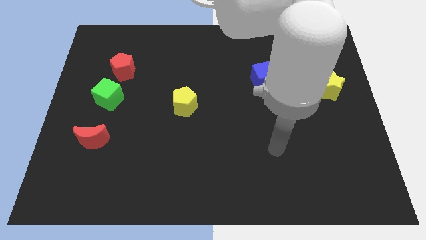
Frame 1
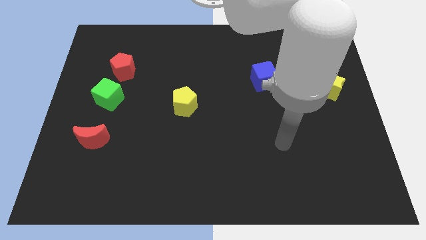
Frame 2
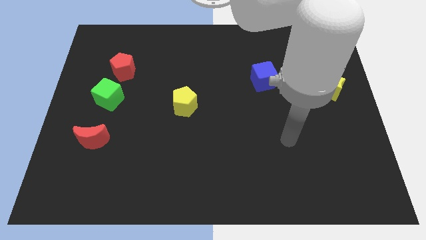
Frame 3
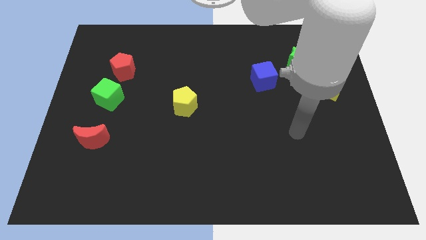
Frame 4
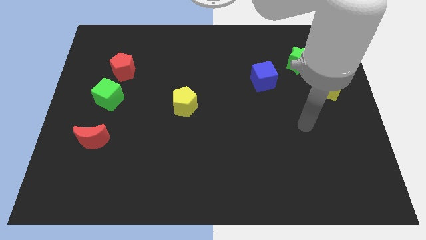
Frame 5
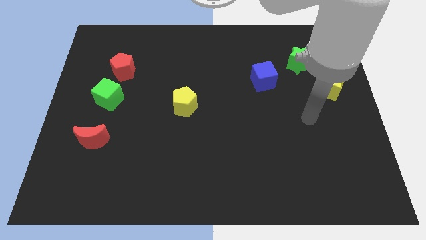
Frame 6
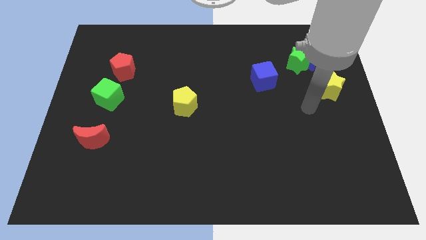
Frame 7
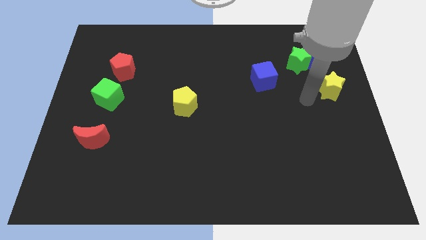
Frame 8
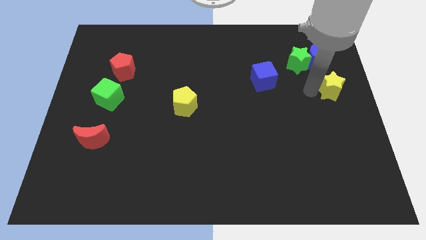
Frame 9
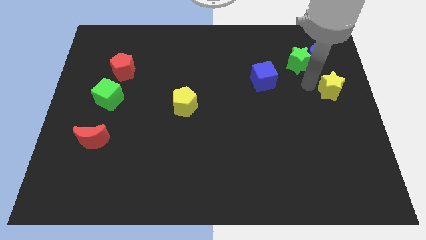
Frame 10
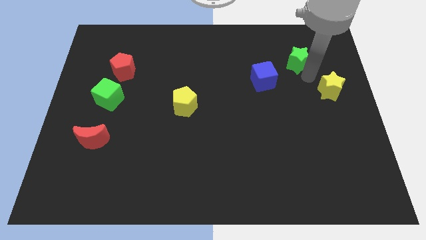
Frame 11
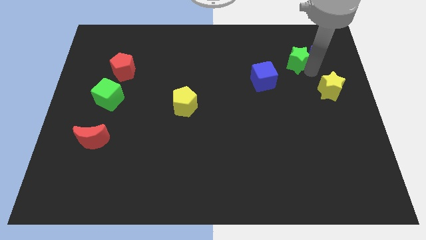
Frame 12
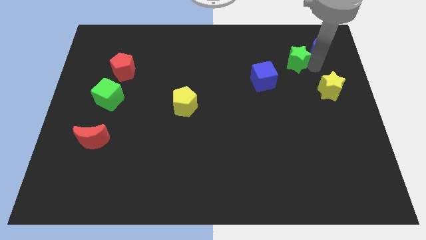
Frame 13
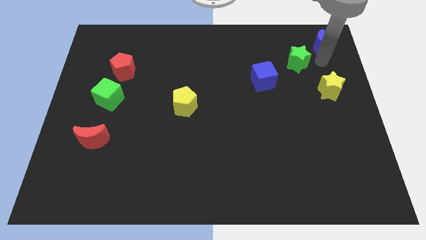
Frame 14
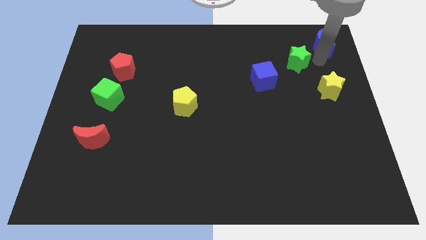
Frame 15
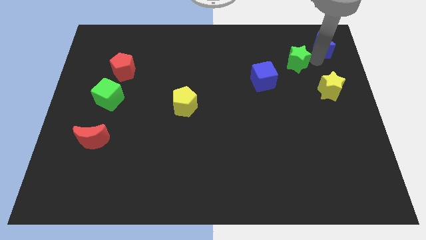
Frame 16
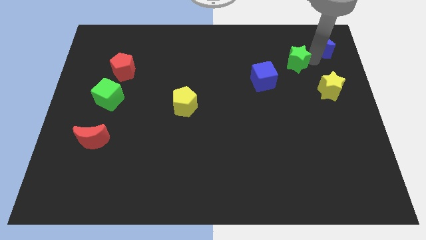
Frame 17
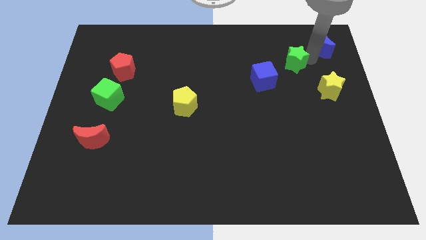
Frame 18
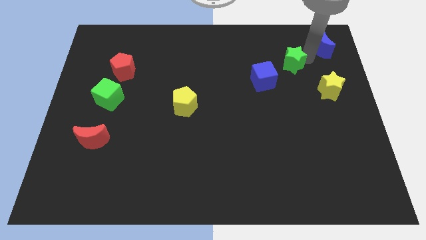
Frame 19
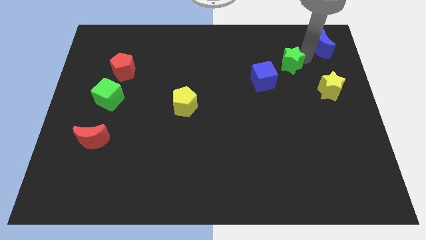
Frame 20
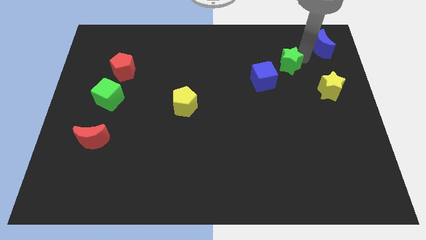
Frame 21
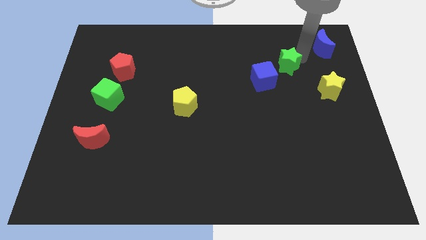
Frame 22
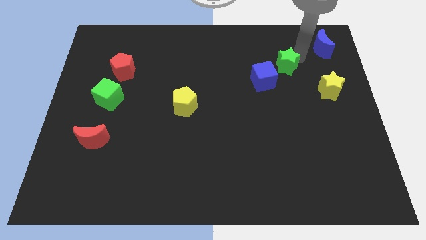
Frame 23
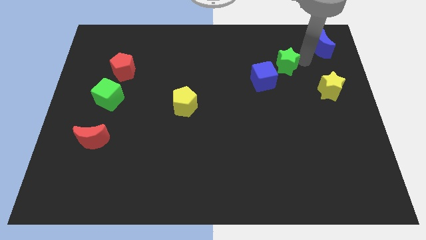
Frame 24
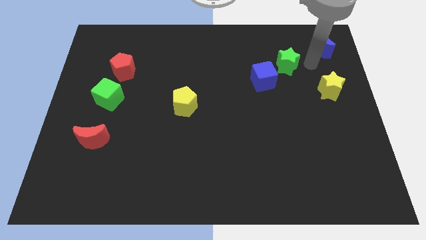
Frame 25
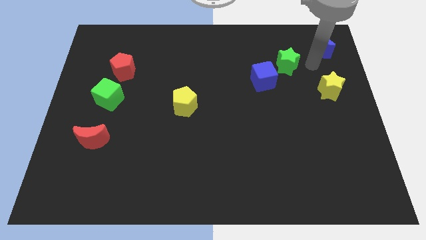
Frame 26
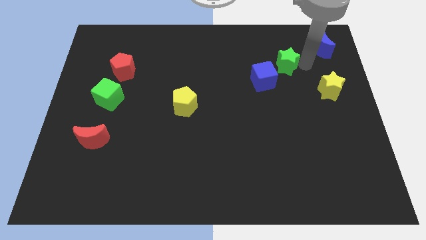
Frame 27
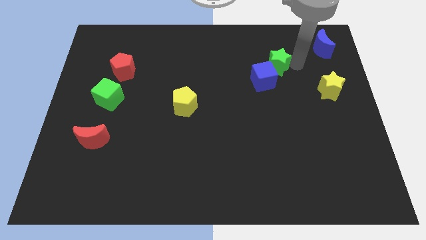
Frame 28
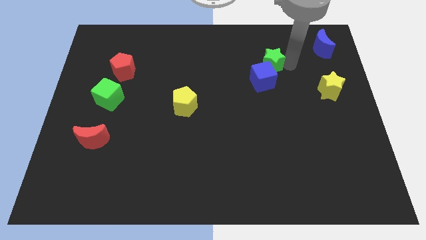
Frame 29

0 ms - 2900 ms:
move the green star a little left

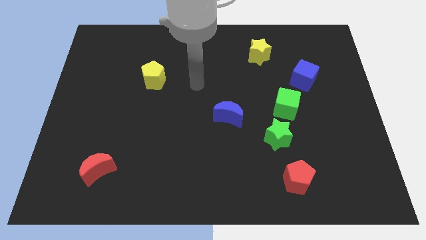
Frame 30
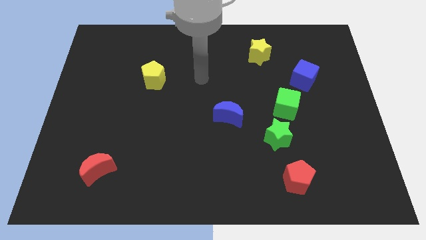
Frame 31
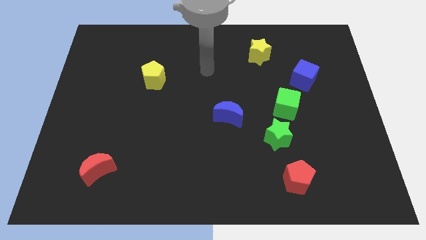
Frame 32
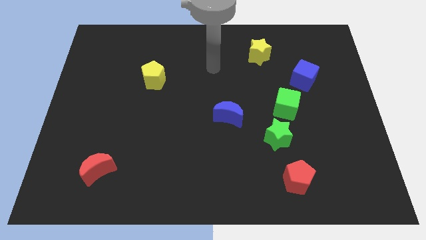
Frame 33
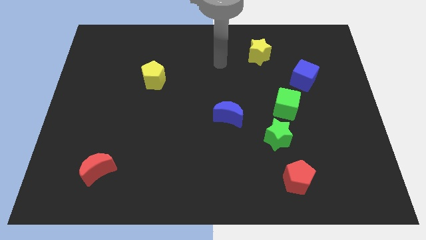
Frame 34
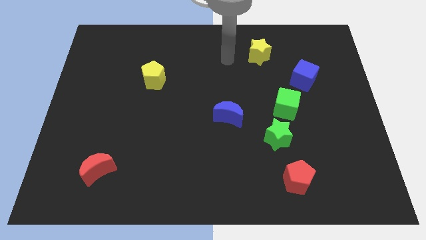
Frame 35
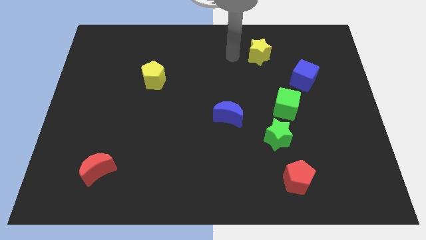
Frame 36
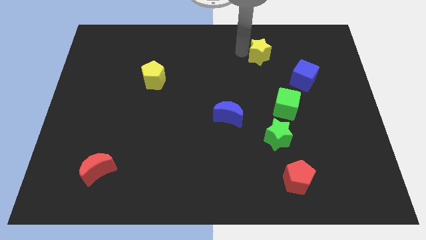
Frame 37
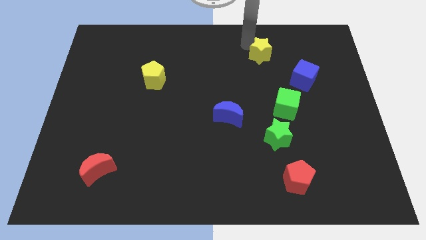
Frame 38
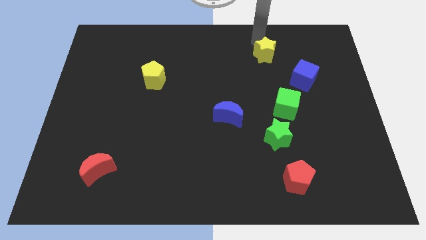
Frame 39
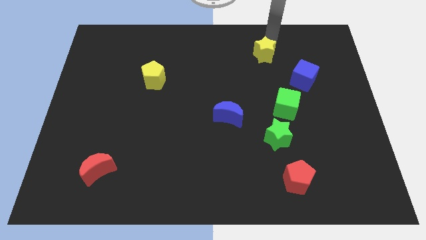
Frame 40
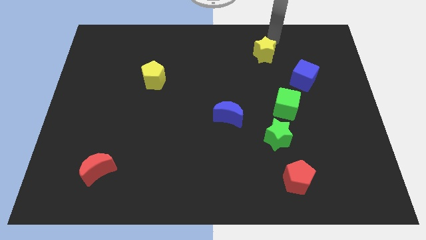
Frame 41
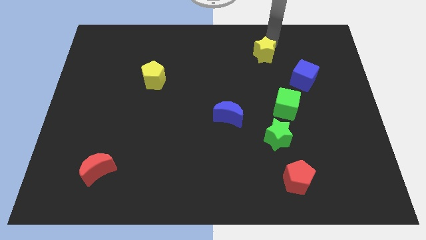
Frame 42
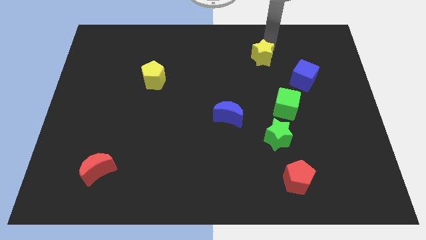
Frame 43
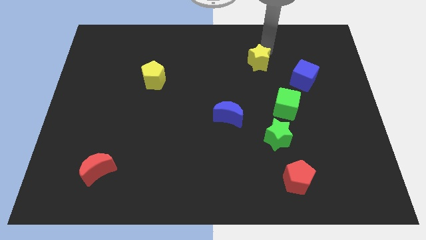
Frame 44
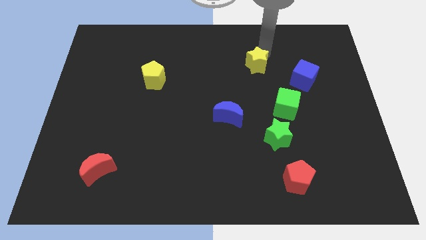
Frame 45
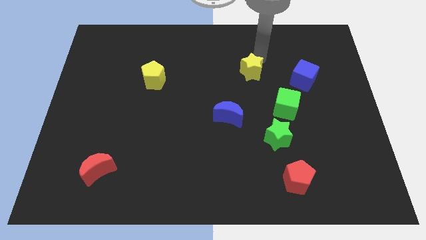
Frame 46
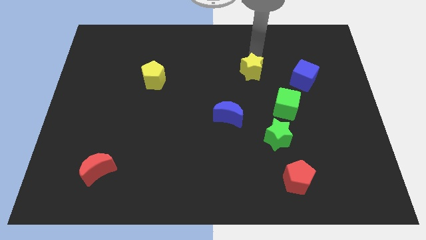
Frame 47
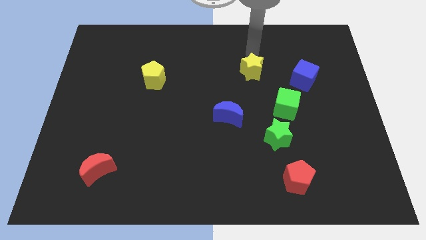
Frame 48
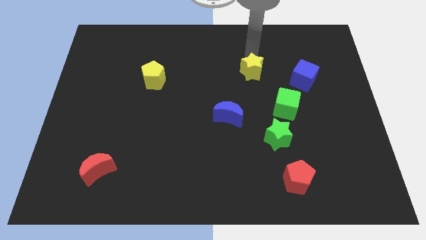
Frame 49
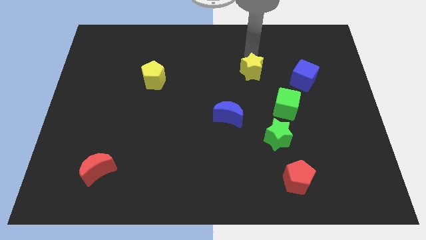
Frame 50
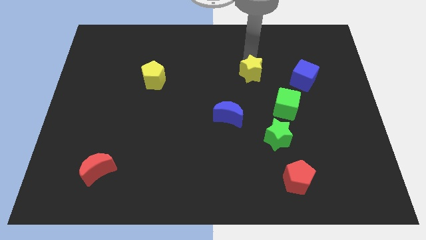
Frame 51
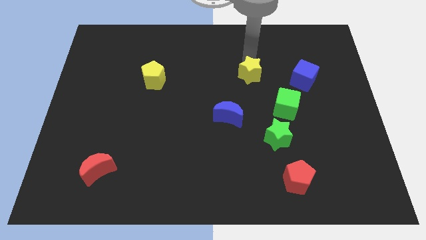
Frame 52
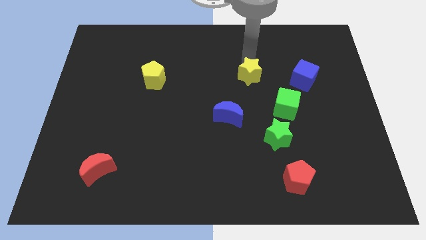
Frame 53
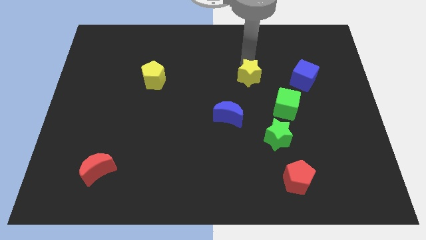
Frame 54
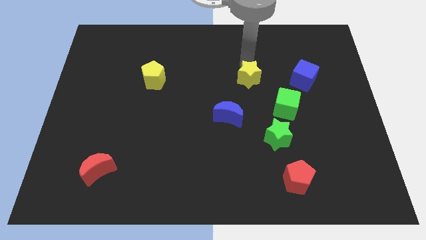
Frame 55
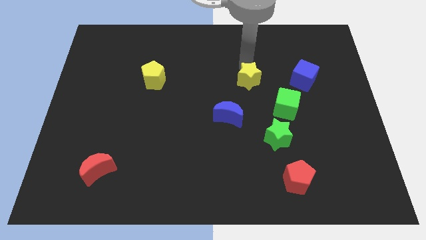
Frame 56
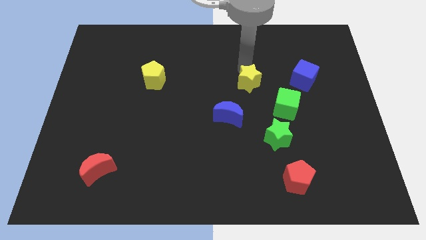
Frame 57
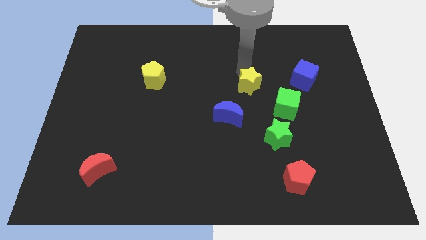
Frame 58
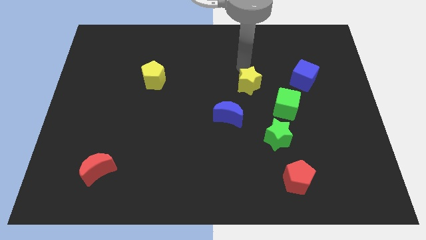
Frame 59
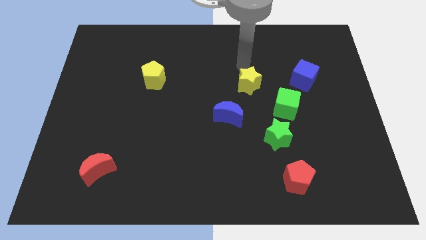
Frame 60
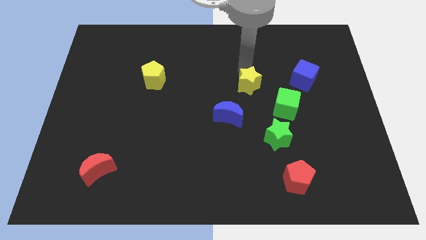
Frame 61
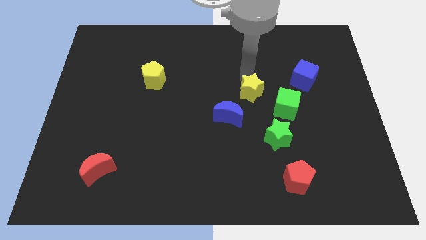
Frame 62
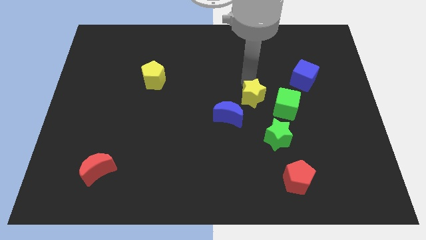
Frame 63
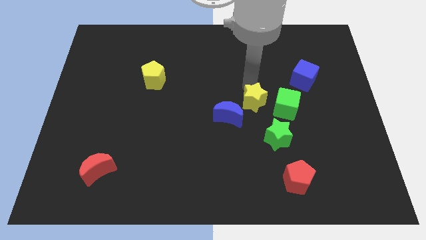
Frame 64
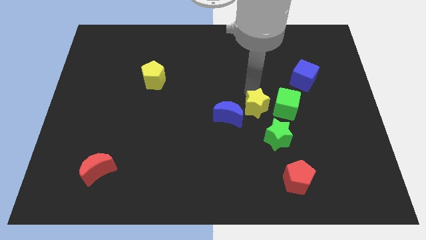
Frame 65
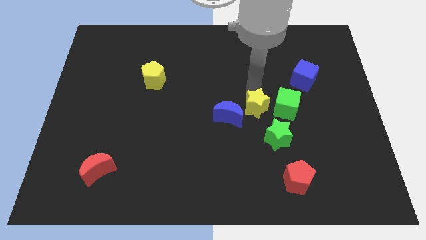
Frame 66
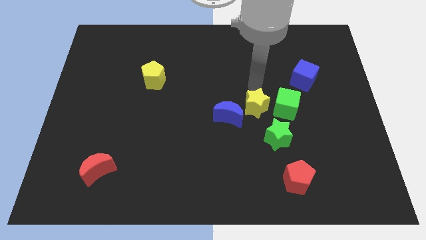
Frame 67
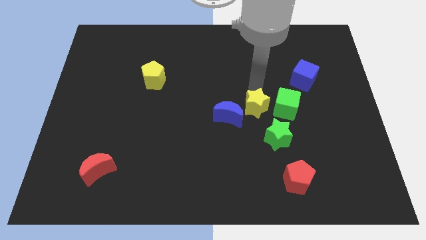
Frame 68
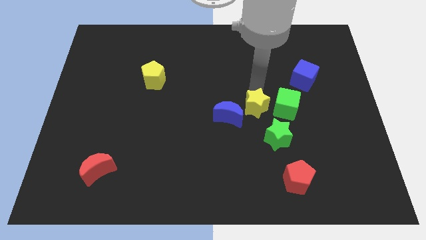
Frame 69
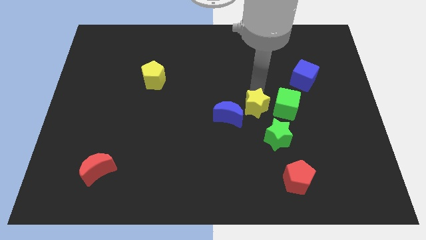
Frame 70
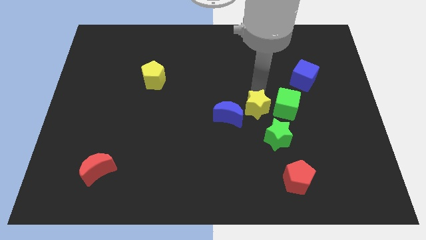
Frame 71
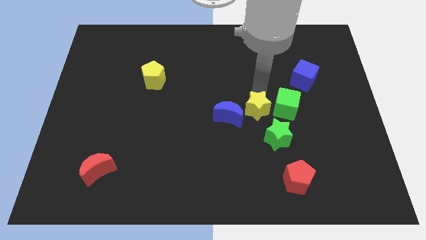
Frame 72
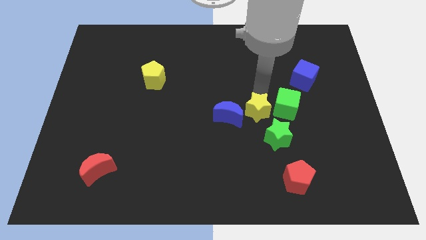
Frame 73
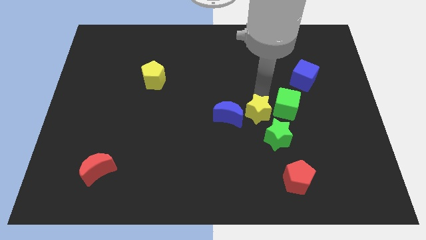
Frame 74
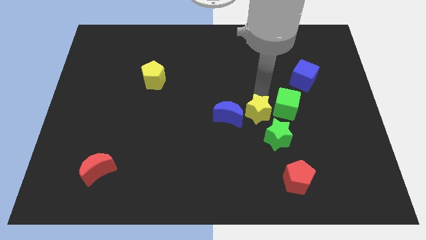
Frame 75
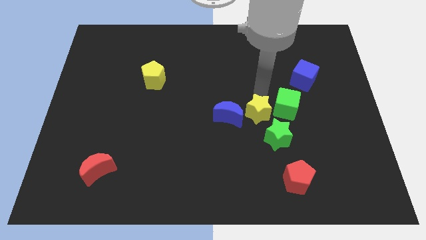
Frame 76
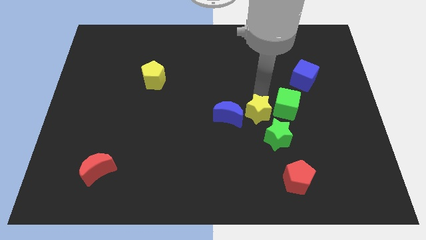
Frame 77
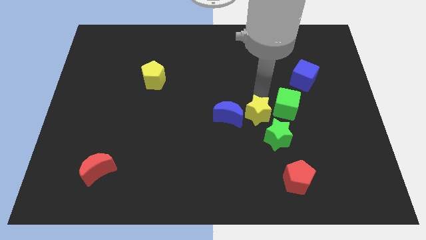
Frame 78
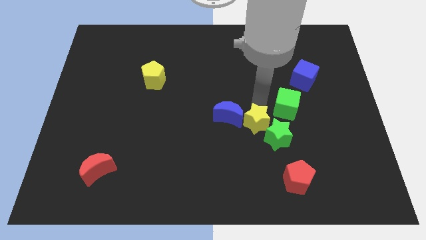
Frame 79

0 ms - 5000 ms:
slide the yellow star downwards
